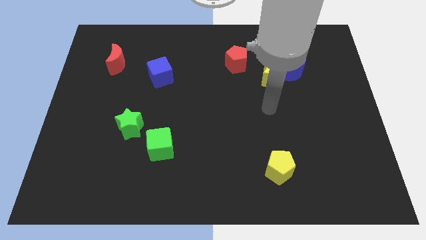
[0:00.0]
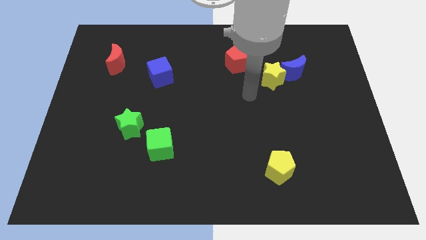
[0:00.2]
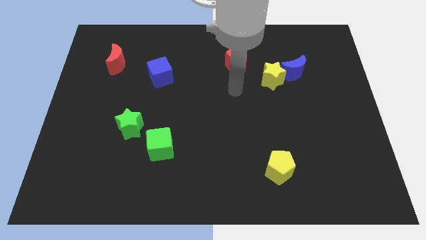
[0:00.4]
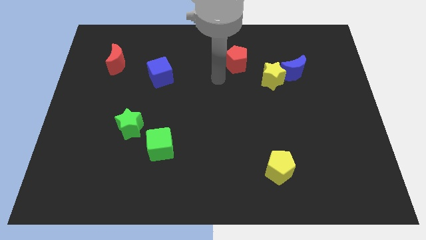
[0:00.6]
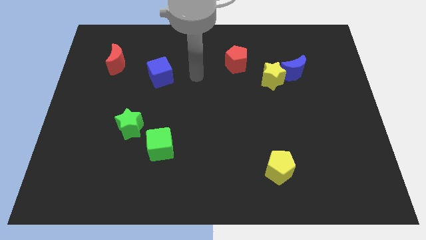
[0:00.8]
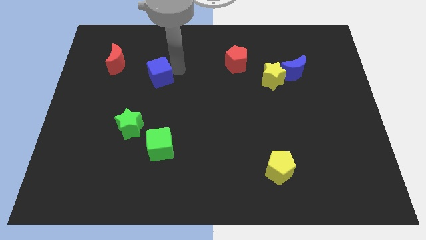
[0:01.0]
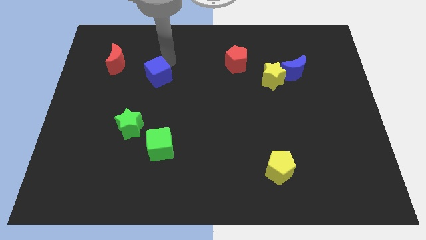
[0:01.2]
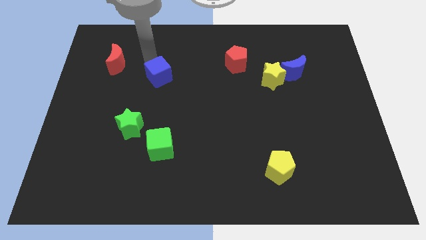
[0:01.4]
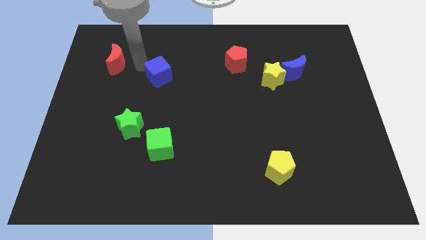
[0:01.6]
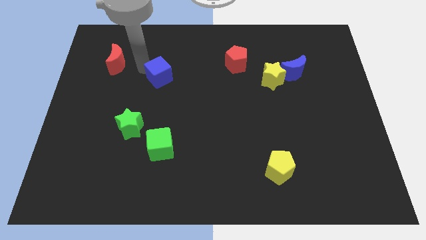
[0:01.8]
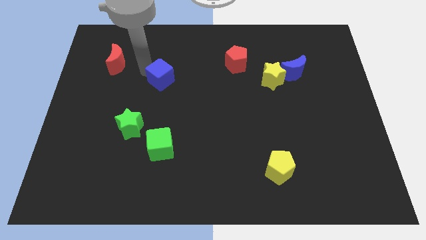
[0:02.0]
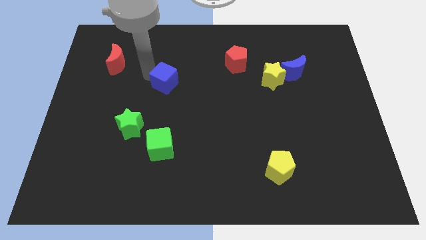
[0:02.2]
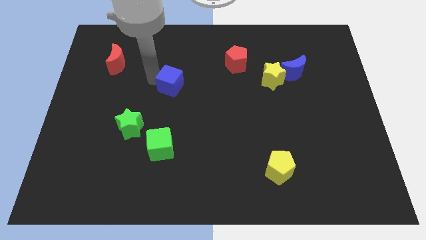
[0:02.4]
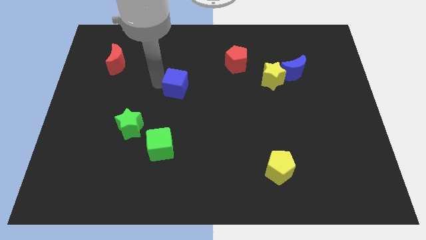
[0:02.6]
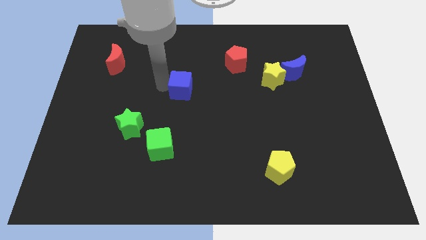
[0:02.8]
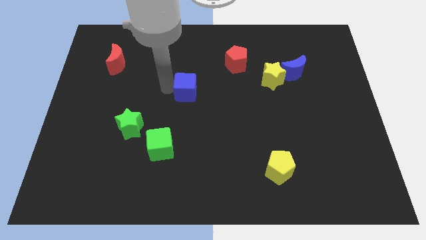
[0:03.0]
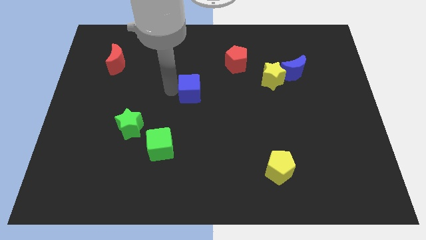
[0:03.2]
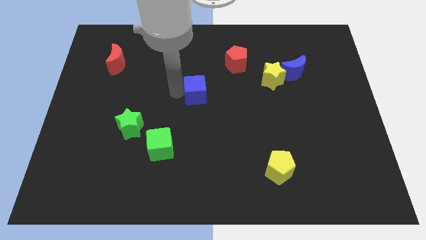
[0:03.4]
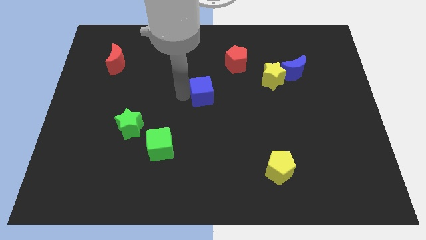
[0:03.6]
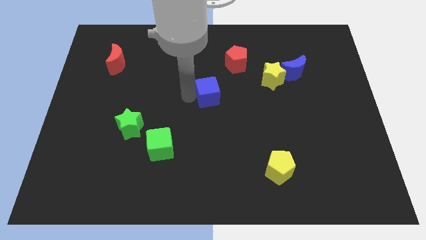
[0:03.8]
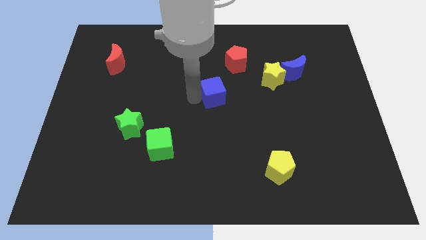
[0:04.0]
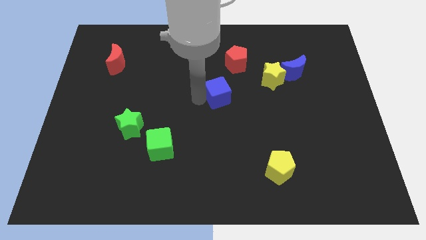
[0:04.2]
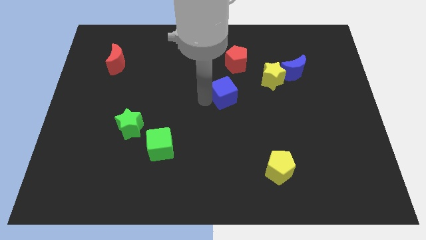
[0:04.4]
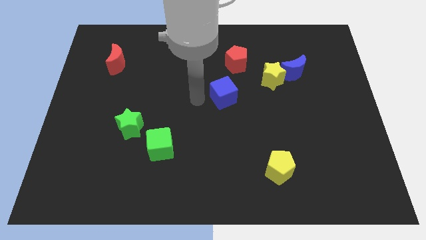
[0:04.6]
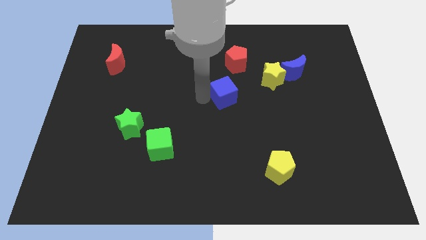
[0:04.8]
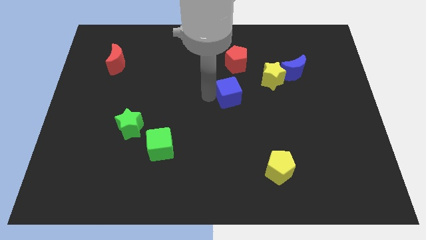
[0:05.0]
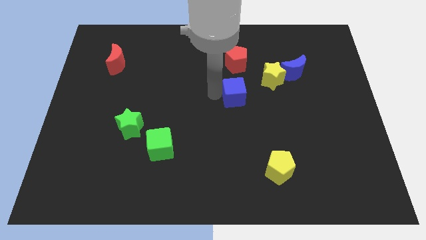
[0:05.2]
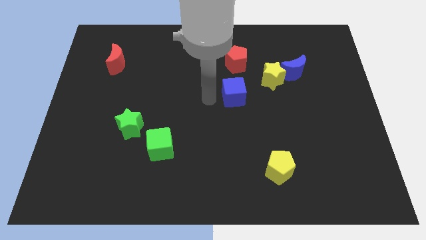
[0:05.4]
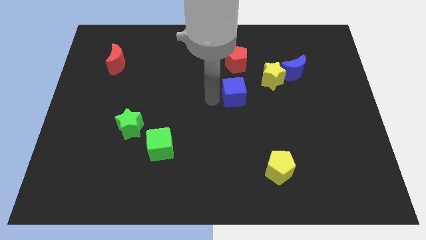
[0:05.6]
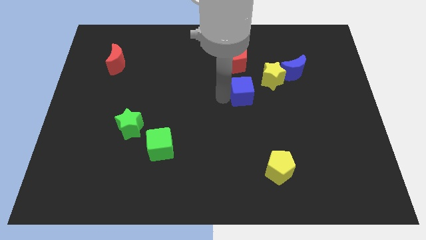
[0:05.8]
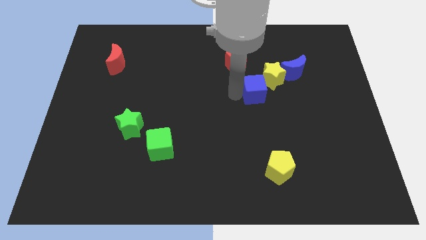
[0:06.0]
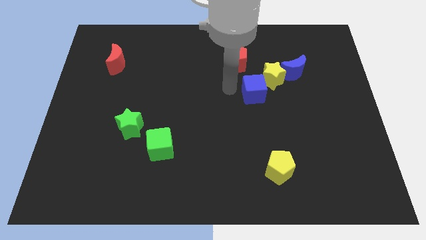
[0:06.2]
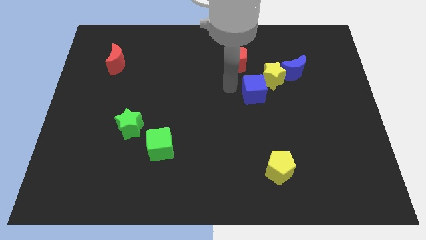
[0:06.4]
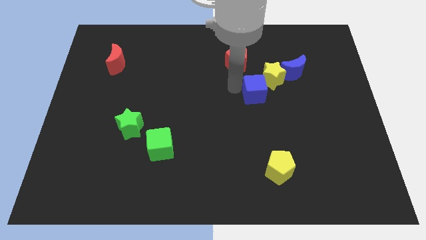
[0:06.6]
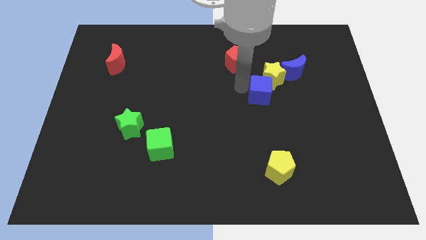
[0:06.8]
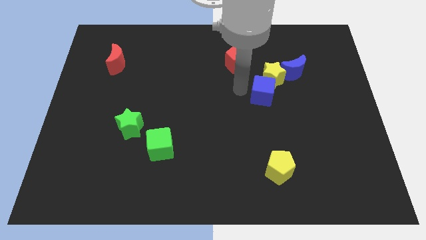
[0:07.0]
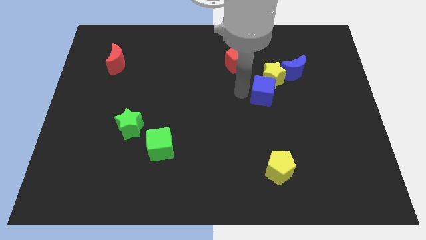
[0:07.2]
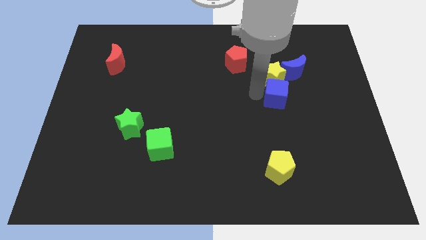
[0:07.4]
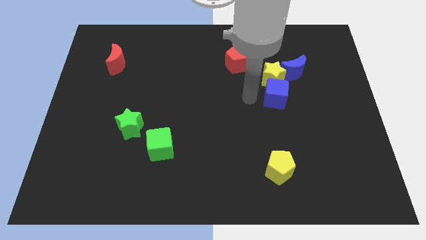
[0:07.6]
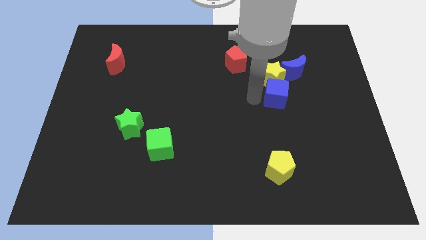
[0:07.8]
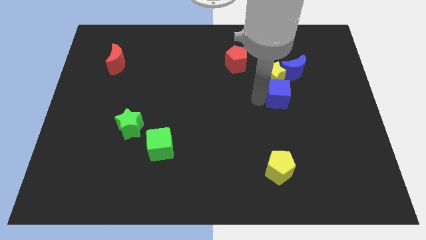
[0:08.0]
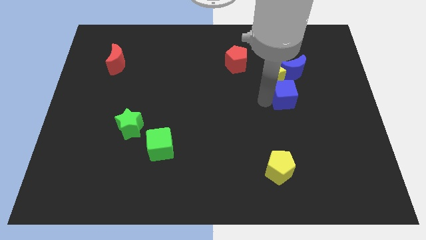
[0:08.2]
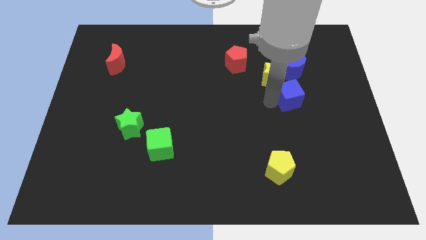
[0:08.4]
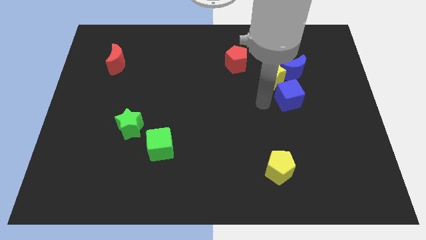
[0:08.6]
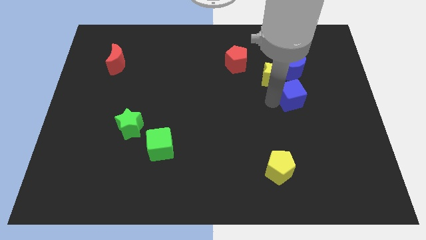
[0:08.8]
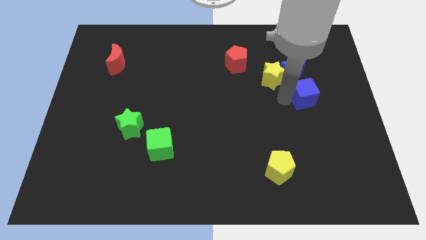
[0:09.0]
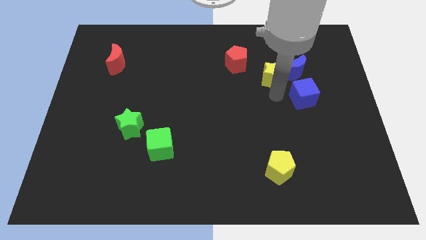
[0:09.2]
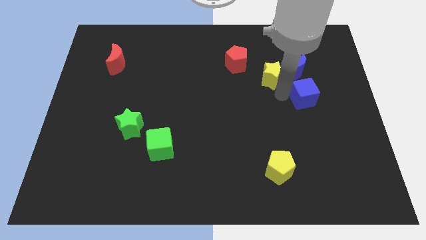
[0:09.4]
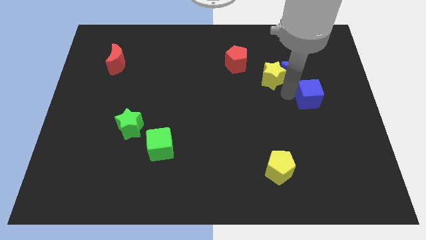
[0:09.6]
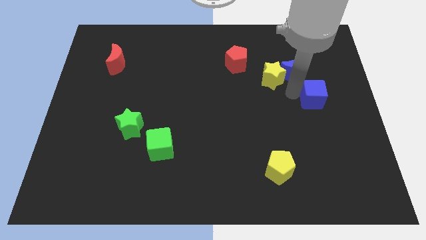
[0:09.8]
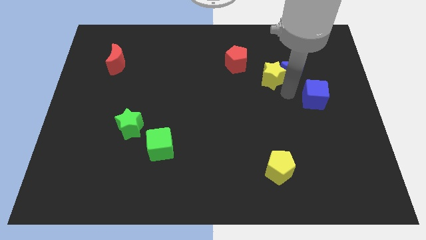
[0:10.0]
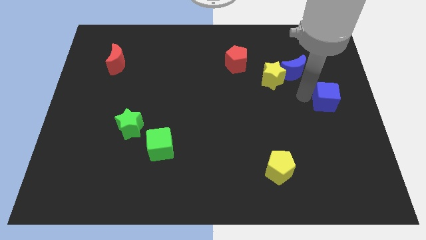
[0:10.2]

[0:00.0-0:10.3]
push the blue cube to the right side
